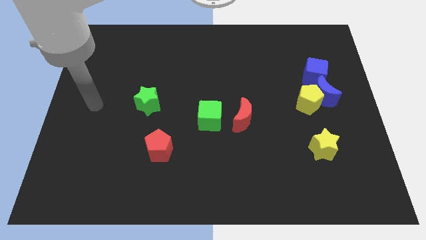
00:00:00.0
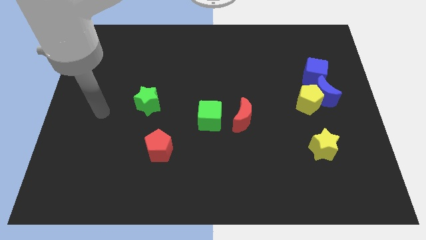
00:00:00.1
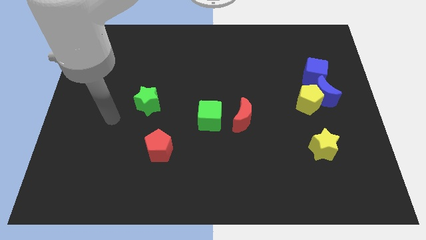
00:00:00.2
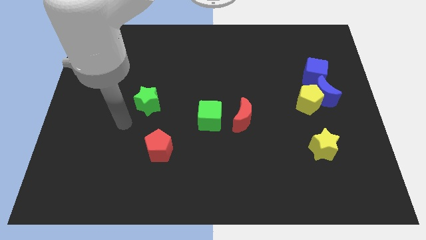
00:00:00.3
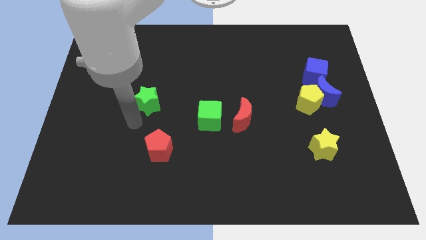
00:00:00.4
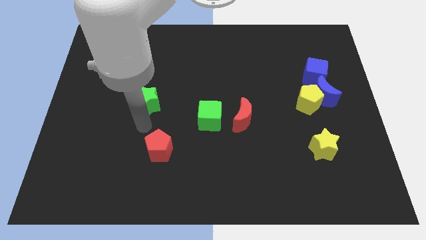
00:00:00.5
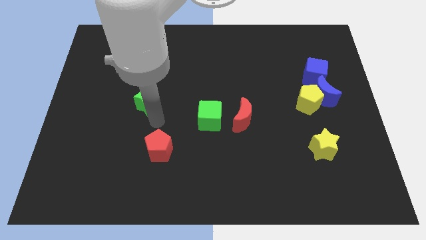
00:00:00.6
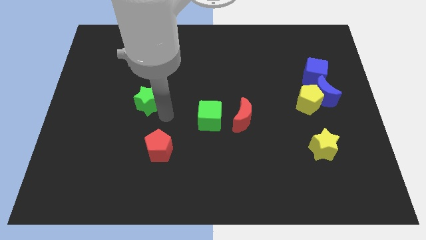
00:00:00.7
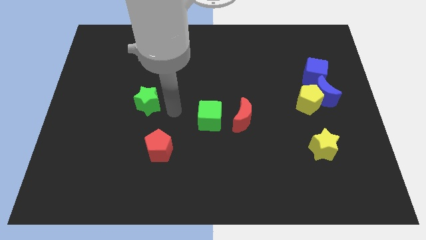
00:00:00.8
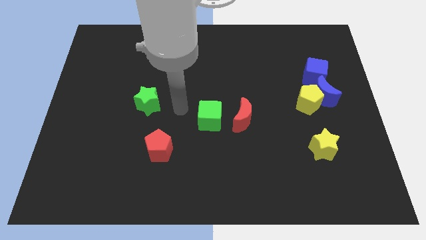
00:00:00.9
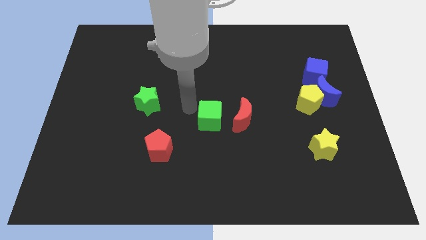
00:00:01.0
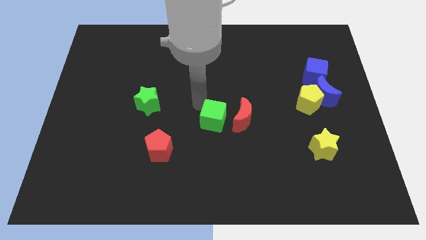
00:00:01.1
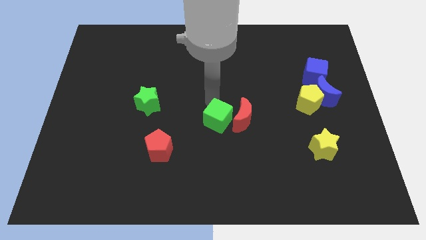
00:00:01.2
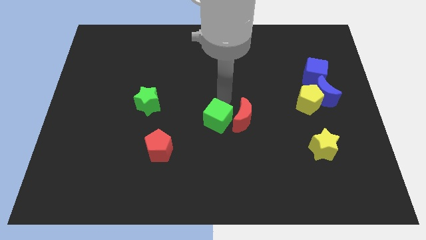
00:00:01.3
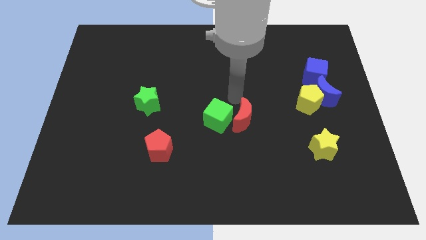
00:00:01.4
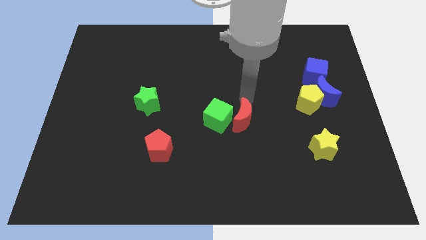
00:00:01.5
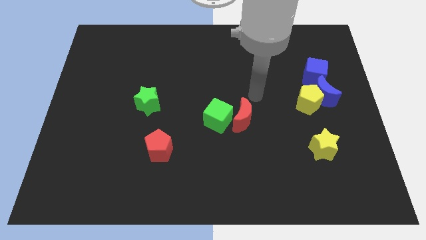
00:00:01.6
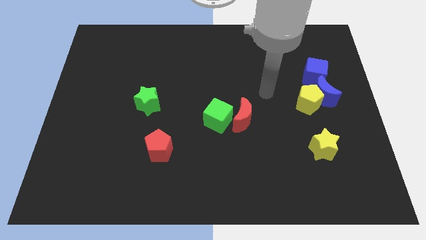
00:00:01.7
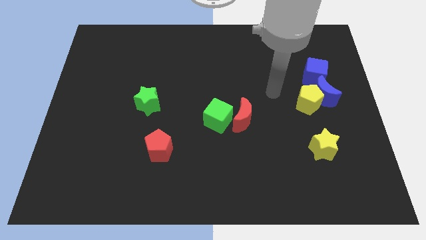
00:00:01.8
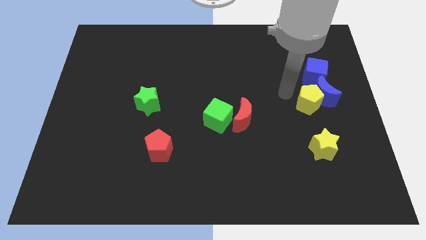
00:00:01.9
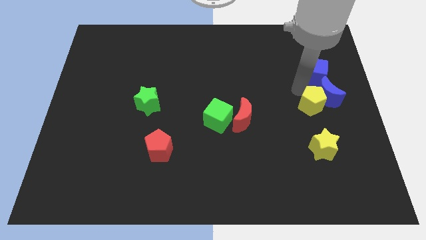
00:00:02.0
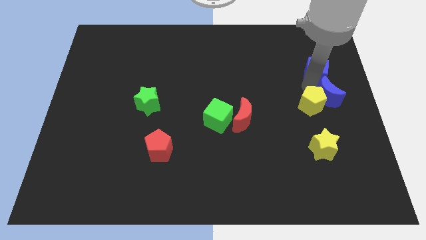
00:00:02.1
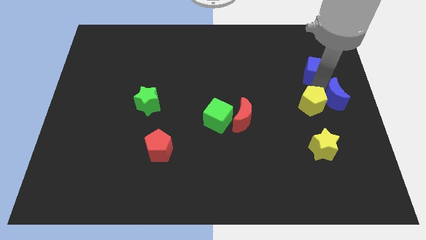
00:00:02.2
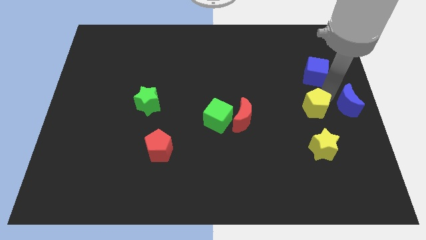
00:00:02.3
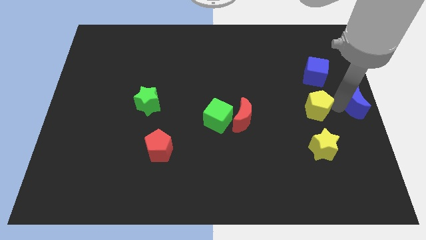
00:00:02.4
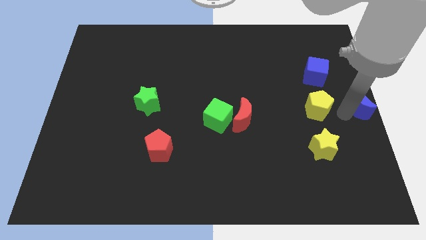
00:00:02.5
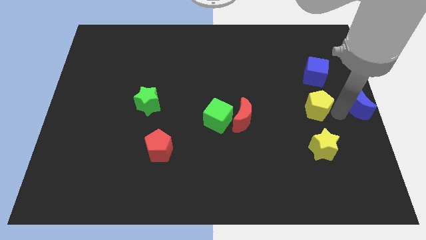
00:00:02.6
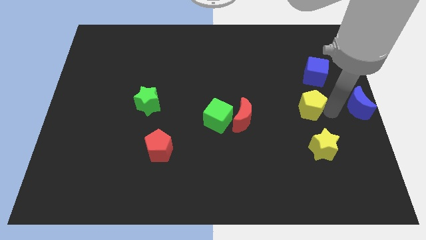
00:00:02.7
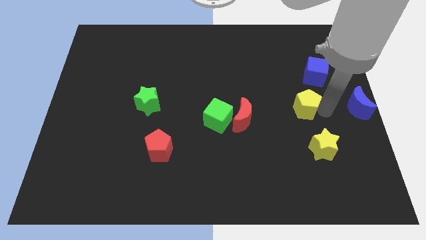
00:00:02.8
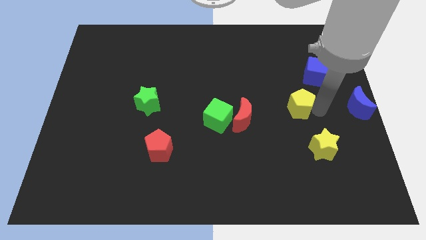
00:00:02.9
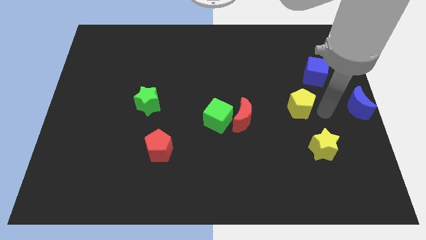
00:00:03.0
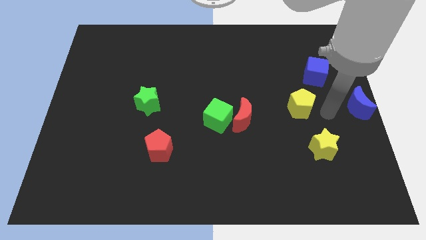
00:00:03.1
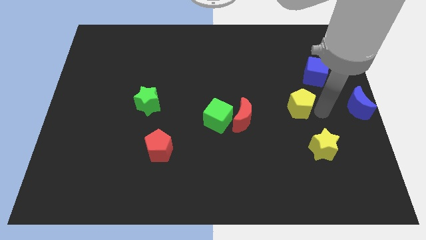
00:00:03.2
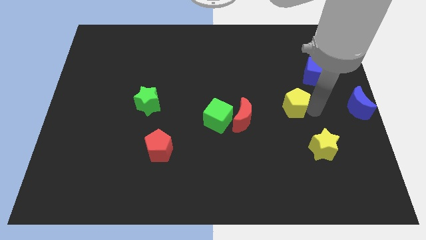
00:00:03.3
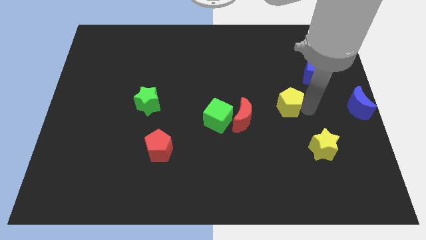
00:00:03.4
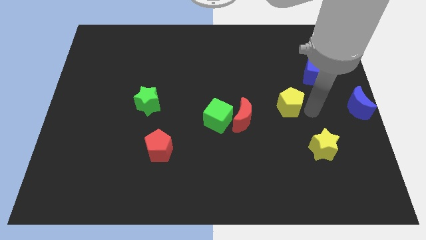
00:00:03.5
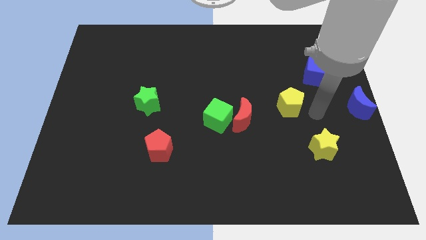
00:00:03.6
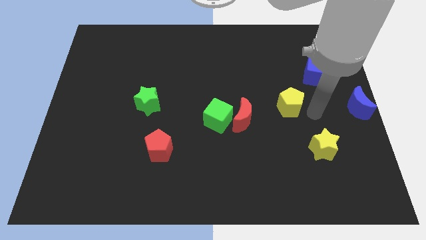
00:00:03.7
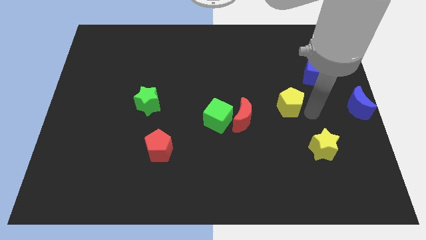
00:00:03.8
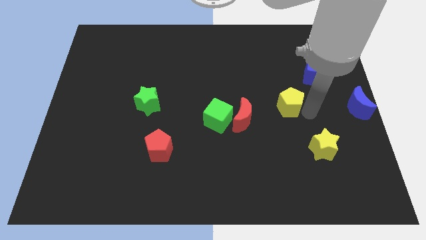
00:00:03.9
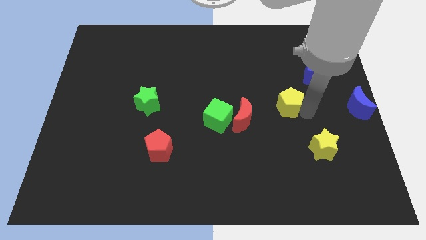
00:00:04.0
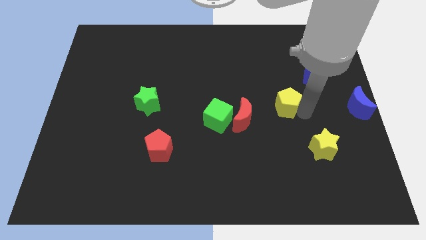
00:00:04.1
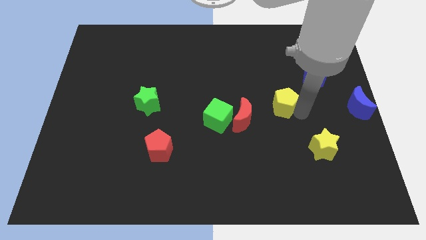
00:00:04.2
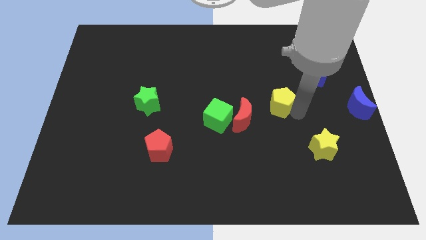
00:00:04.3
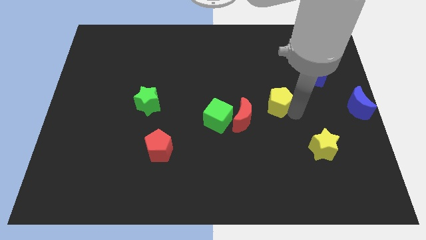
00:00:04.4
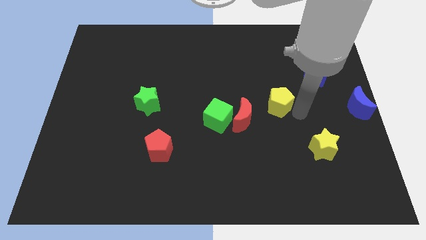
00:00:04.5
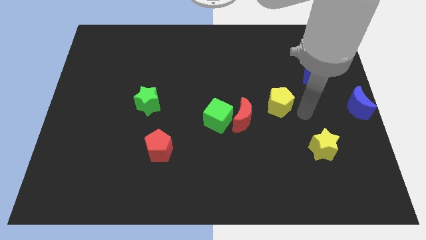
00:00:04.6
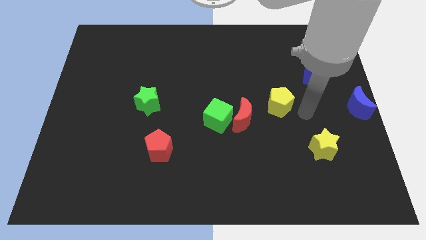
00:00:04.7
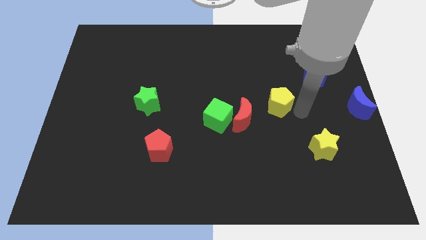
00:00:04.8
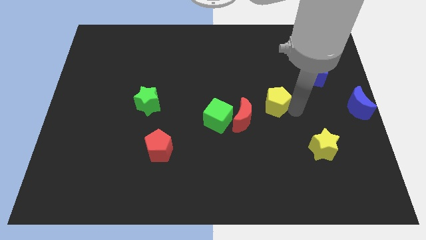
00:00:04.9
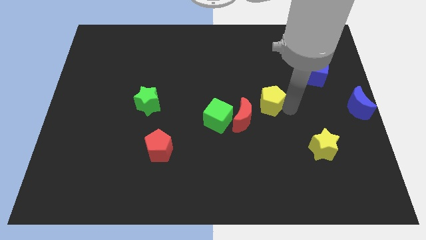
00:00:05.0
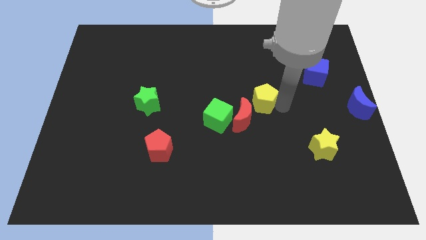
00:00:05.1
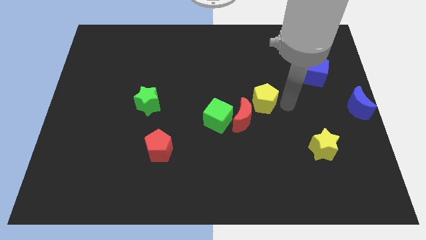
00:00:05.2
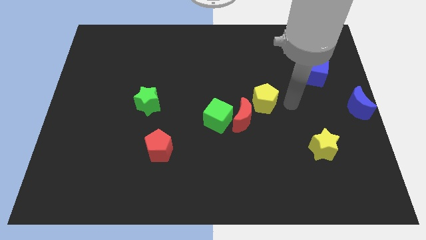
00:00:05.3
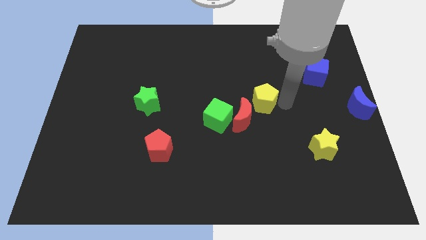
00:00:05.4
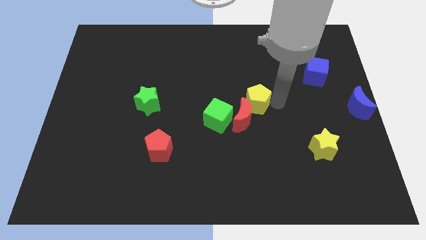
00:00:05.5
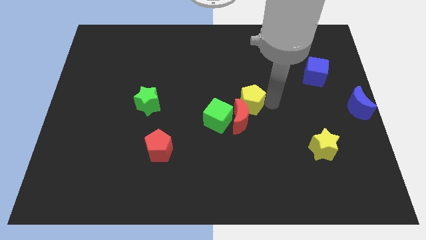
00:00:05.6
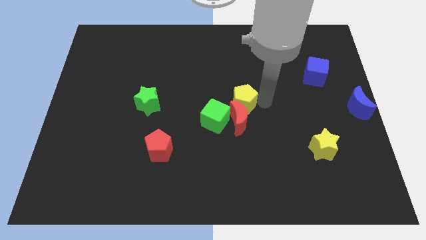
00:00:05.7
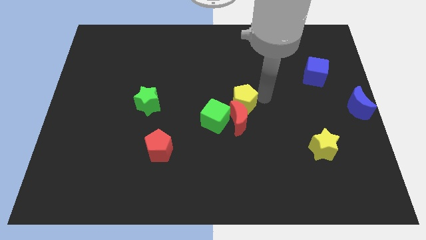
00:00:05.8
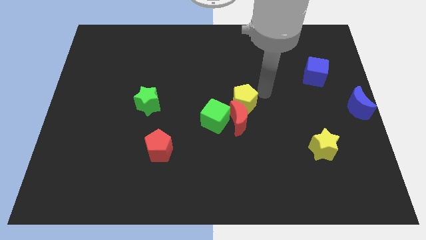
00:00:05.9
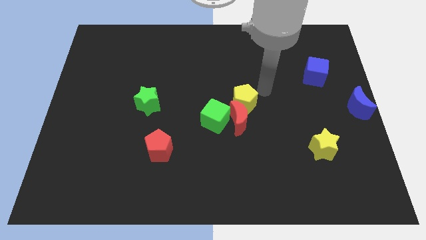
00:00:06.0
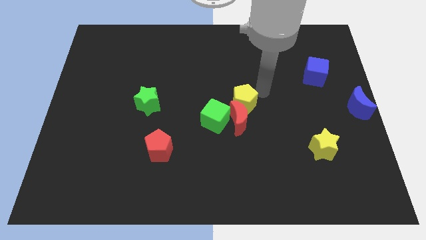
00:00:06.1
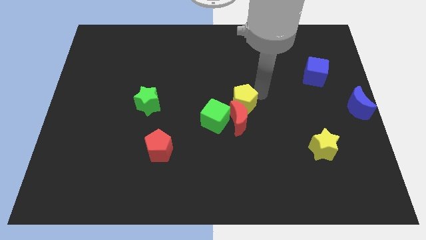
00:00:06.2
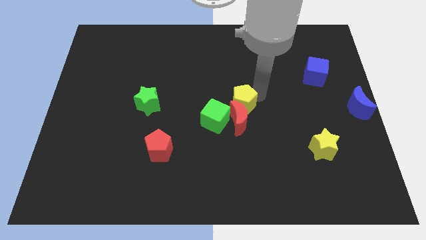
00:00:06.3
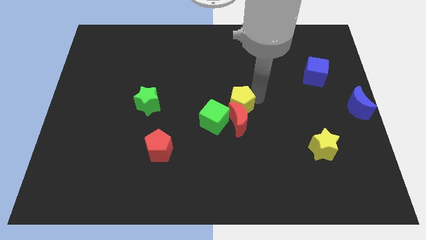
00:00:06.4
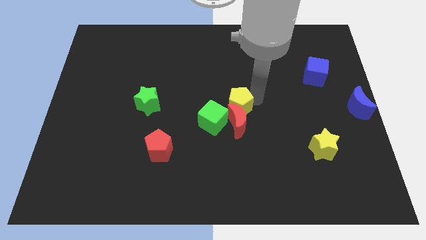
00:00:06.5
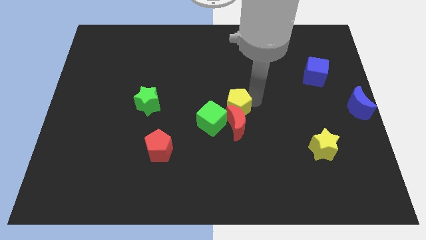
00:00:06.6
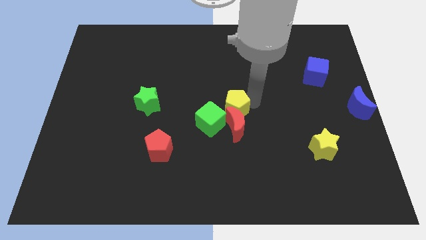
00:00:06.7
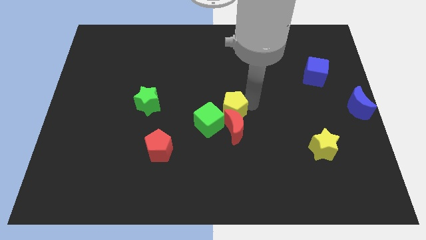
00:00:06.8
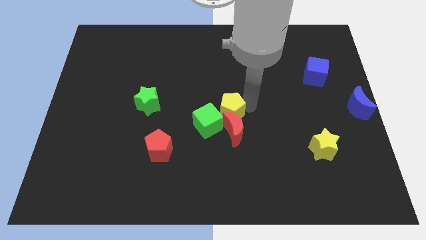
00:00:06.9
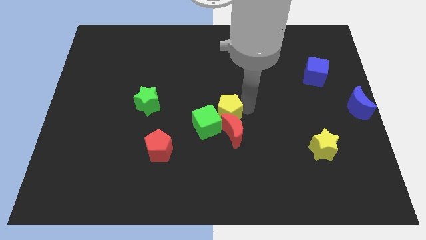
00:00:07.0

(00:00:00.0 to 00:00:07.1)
slide the yellow pentagon next to the green cube
